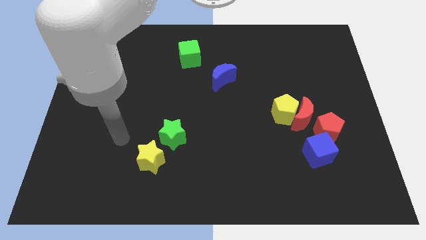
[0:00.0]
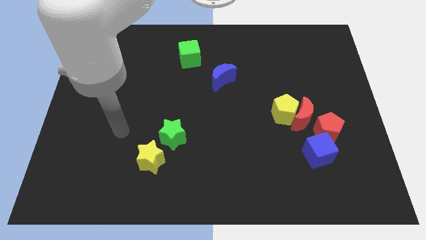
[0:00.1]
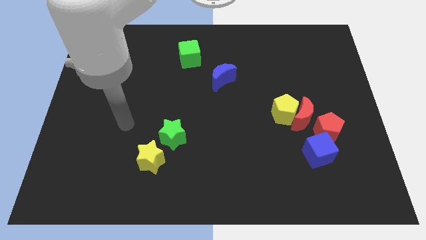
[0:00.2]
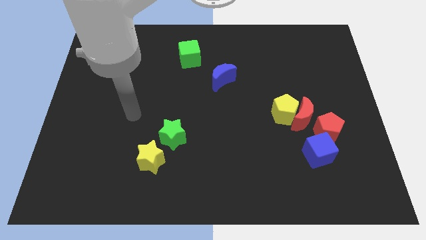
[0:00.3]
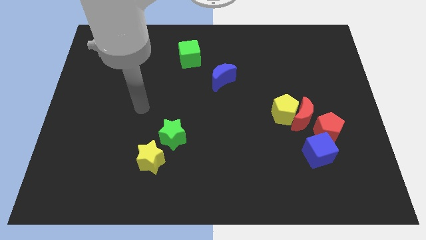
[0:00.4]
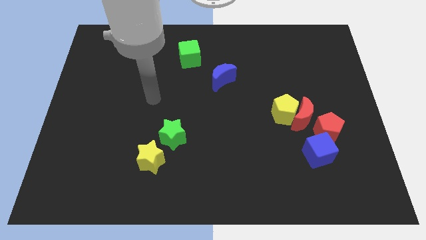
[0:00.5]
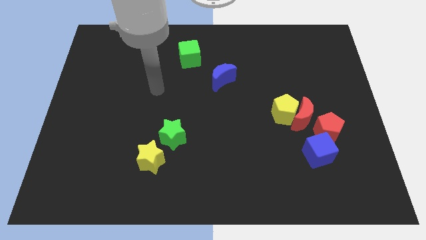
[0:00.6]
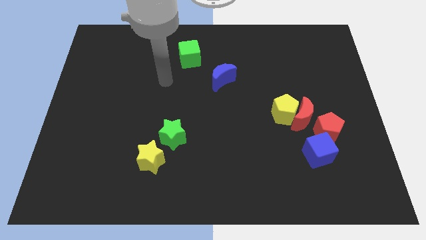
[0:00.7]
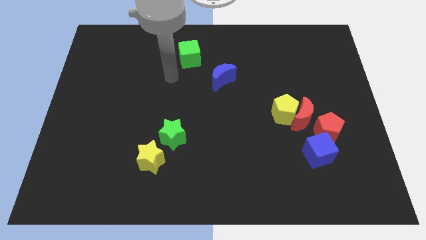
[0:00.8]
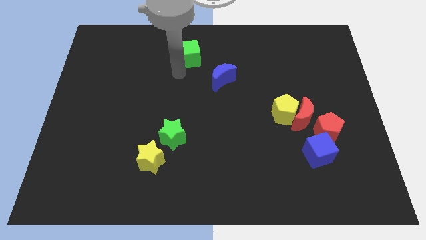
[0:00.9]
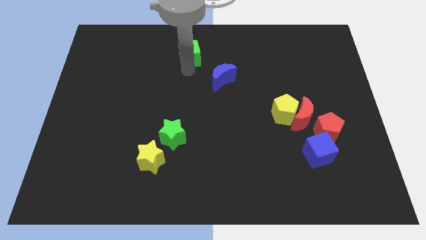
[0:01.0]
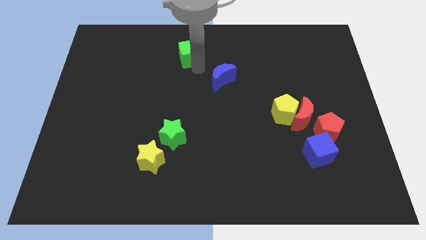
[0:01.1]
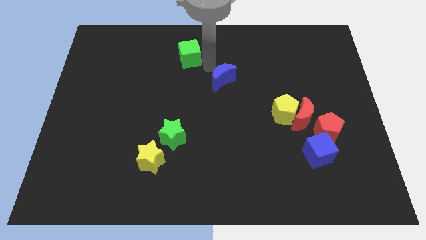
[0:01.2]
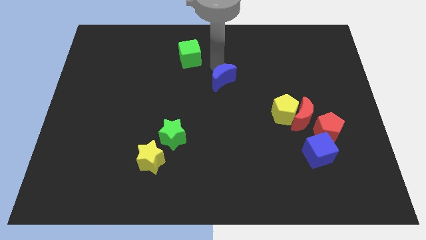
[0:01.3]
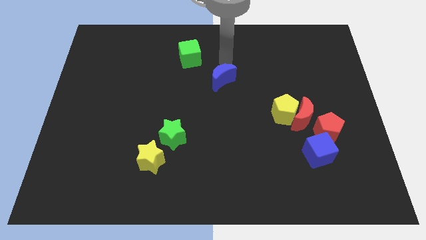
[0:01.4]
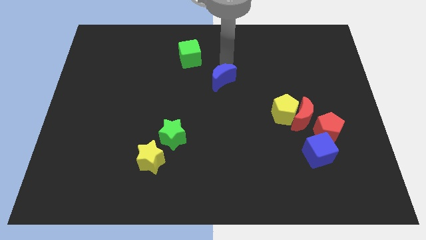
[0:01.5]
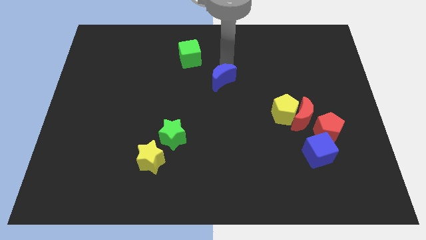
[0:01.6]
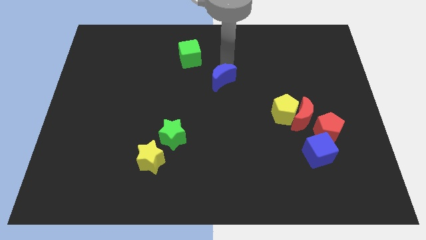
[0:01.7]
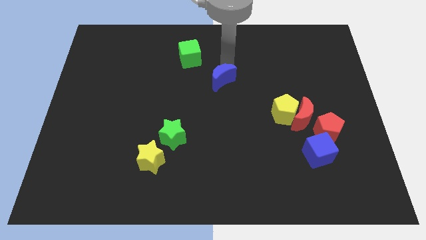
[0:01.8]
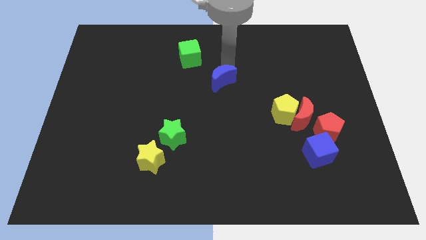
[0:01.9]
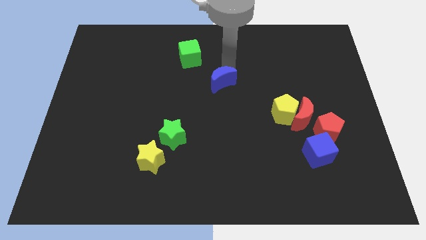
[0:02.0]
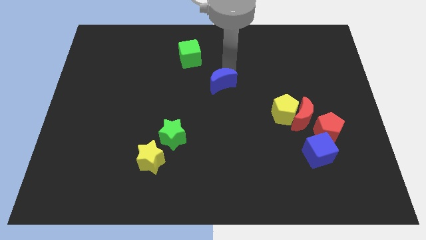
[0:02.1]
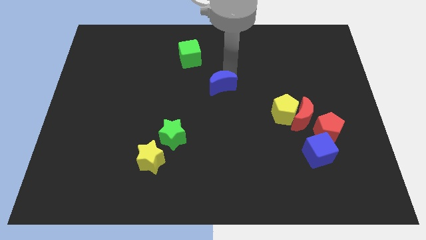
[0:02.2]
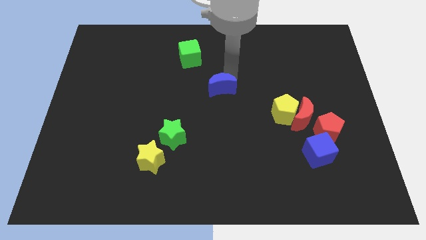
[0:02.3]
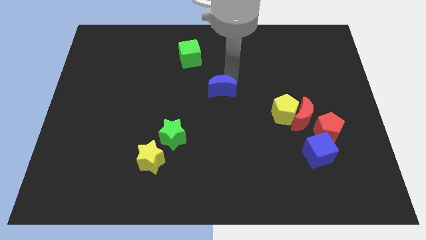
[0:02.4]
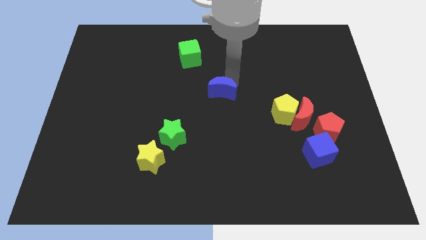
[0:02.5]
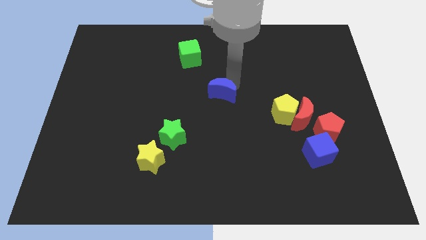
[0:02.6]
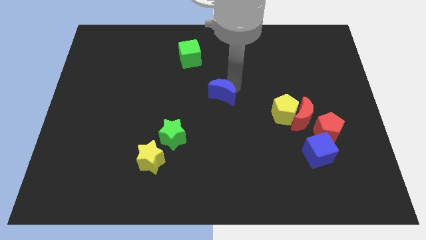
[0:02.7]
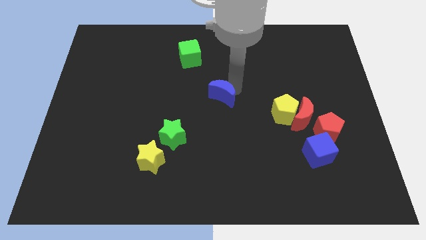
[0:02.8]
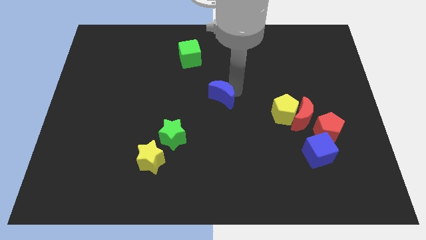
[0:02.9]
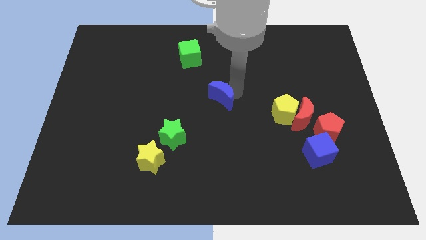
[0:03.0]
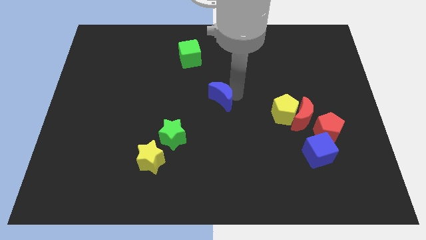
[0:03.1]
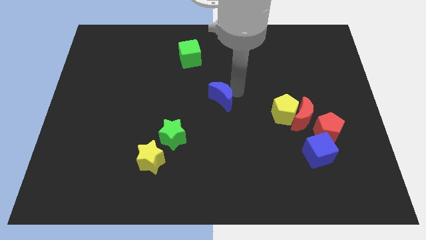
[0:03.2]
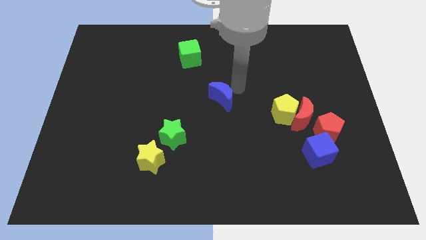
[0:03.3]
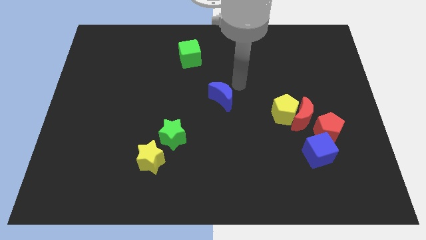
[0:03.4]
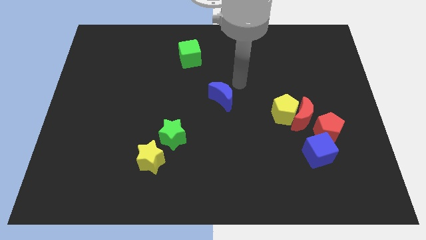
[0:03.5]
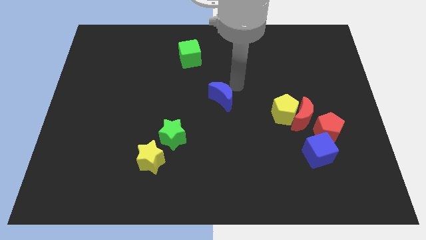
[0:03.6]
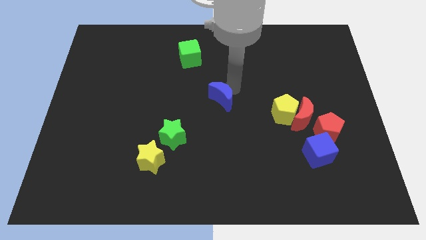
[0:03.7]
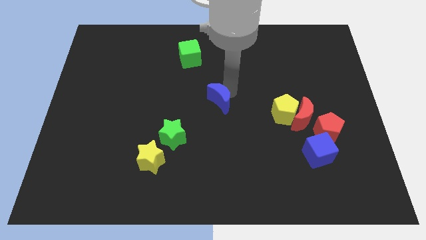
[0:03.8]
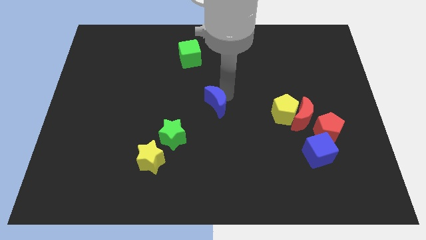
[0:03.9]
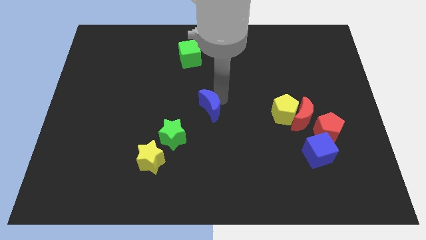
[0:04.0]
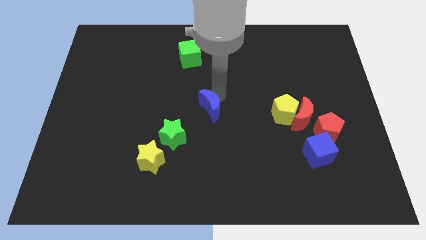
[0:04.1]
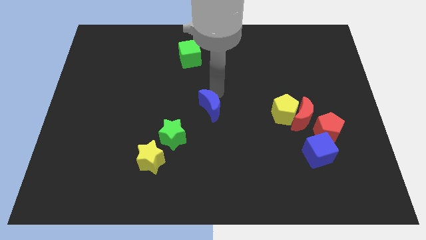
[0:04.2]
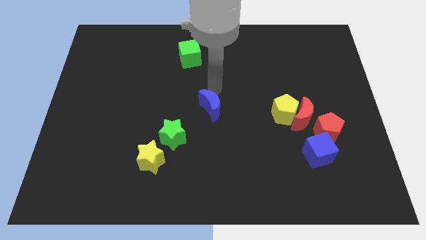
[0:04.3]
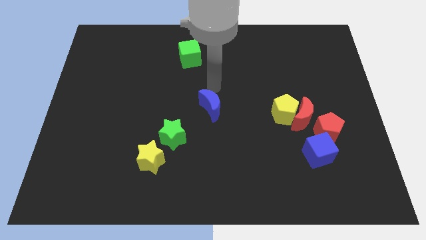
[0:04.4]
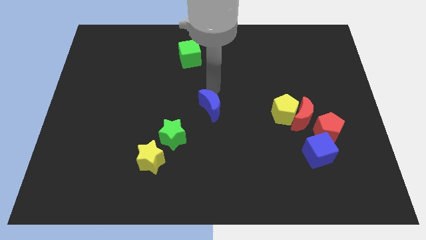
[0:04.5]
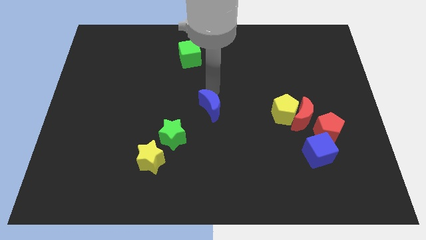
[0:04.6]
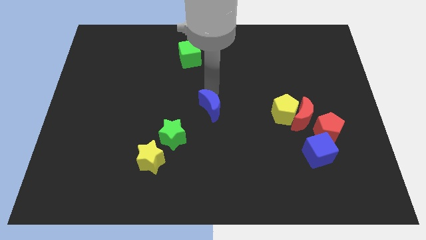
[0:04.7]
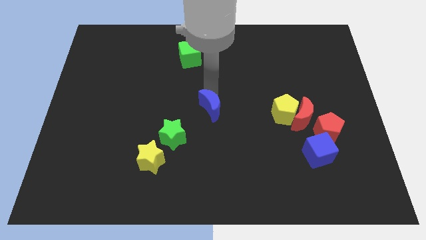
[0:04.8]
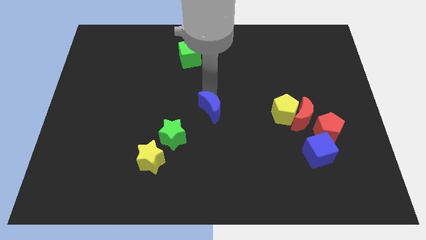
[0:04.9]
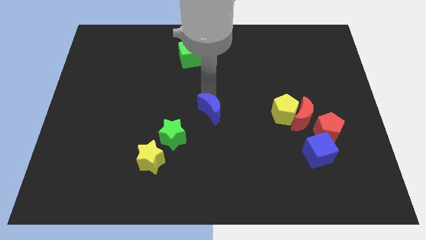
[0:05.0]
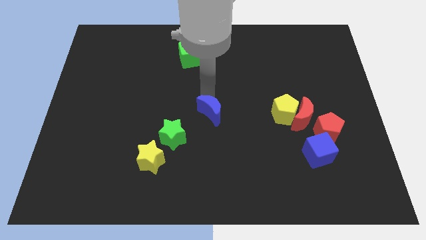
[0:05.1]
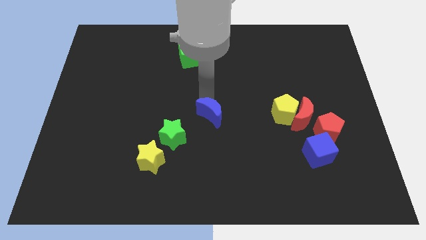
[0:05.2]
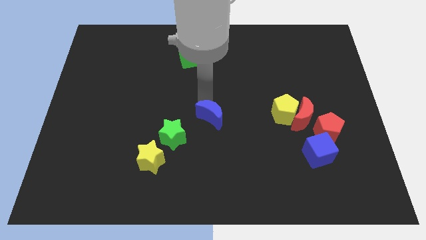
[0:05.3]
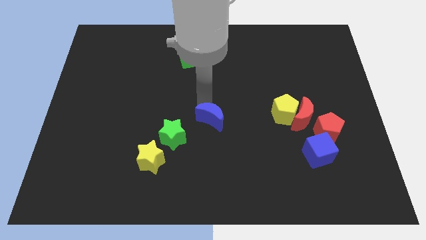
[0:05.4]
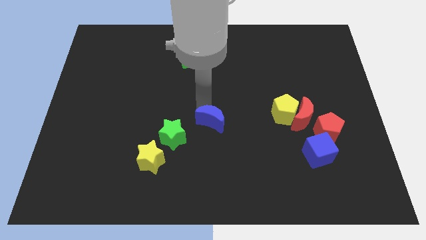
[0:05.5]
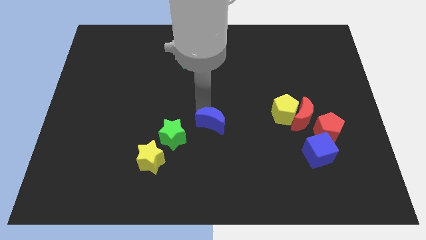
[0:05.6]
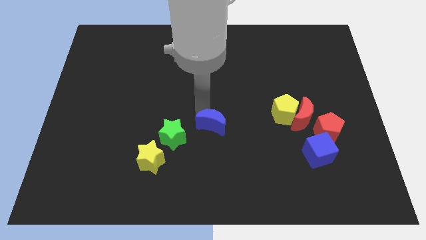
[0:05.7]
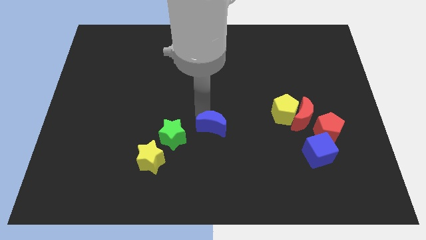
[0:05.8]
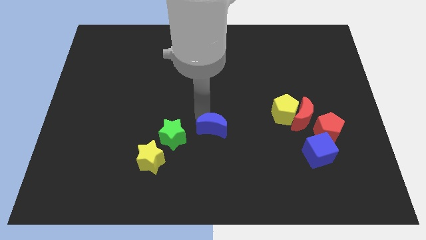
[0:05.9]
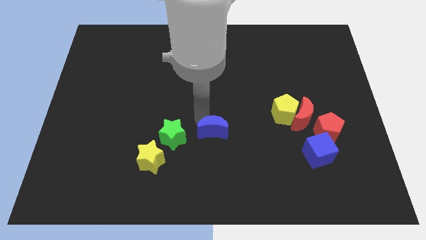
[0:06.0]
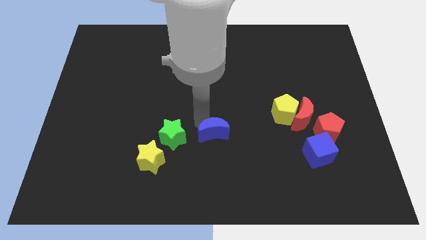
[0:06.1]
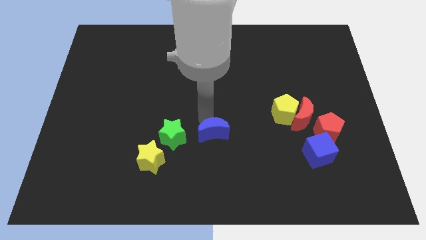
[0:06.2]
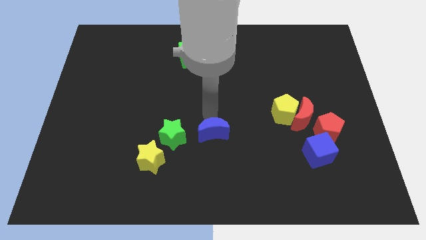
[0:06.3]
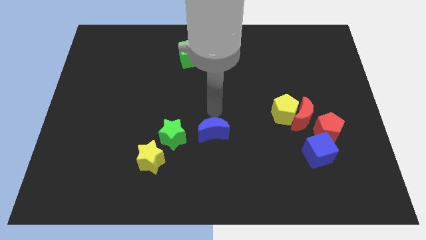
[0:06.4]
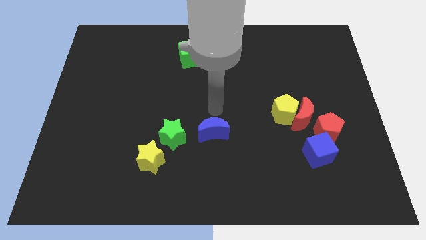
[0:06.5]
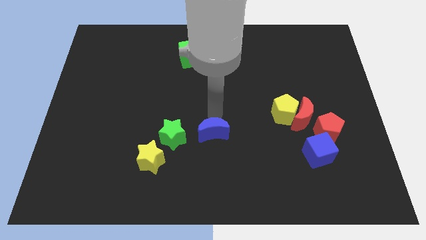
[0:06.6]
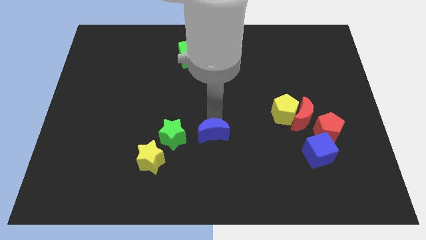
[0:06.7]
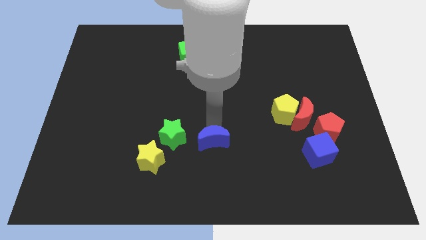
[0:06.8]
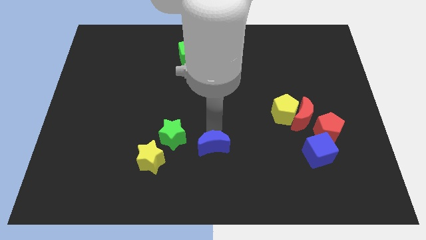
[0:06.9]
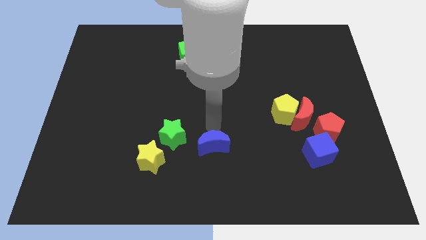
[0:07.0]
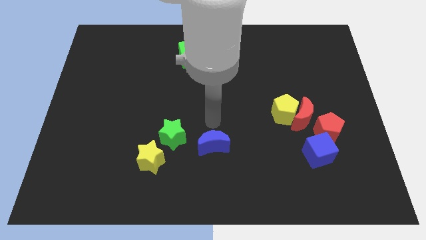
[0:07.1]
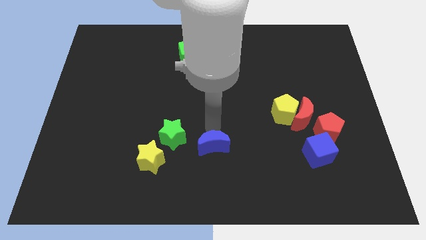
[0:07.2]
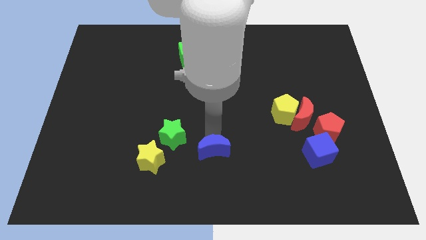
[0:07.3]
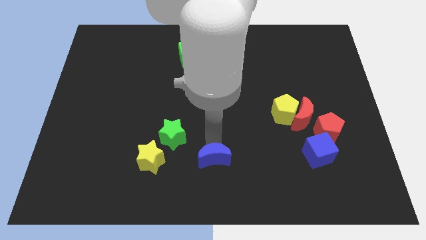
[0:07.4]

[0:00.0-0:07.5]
move the blue moon to the bottom
